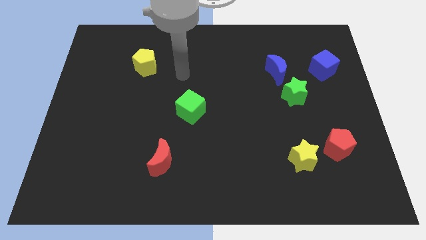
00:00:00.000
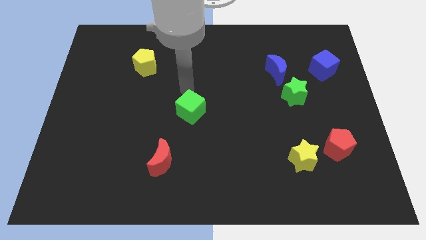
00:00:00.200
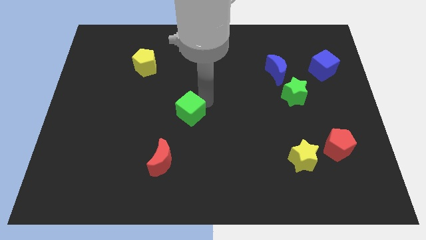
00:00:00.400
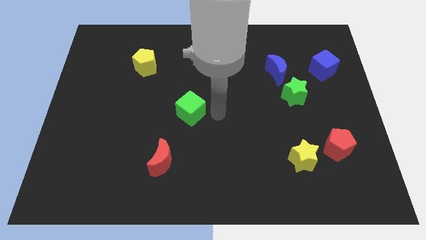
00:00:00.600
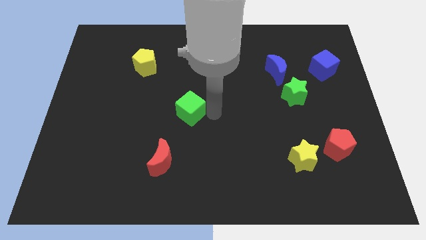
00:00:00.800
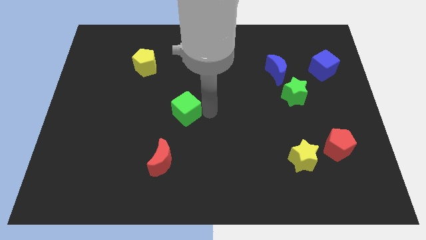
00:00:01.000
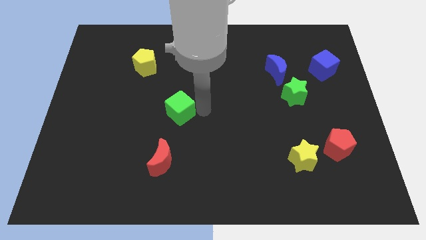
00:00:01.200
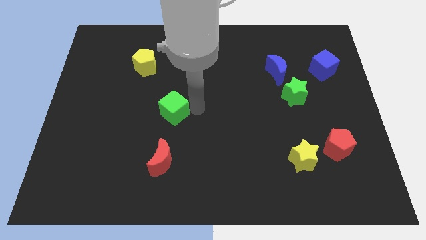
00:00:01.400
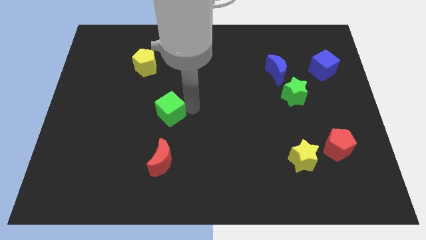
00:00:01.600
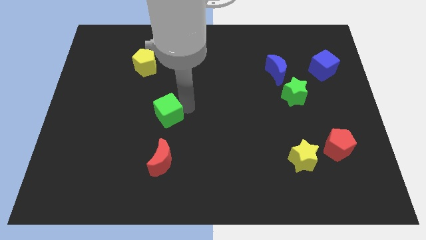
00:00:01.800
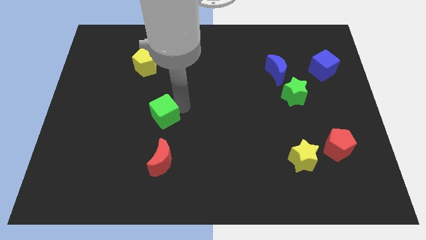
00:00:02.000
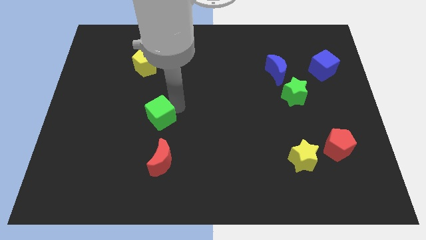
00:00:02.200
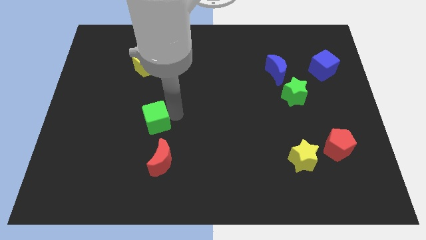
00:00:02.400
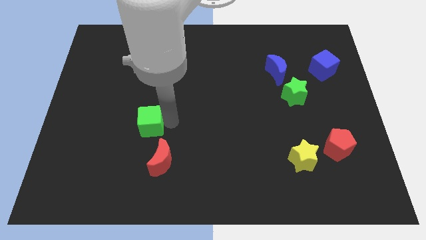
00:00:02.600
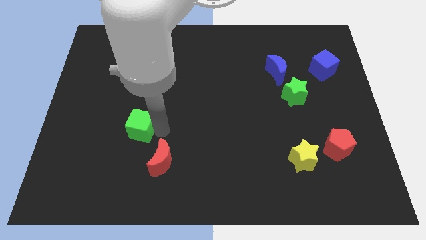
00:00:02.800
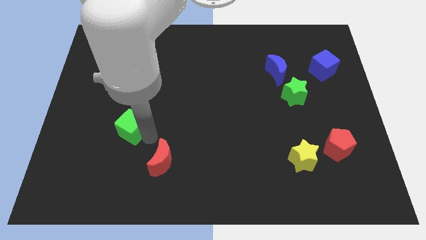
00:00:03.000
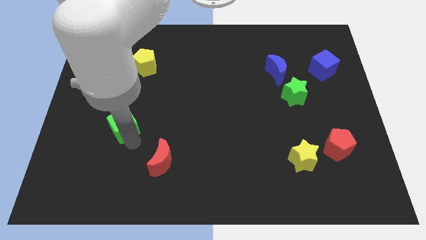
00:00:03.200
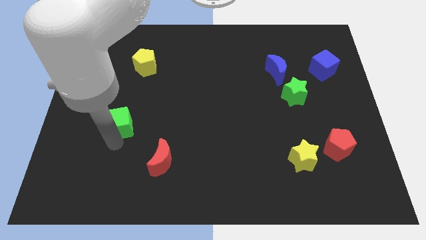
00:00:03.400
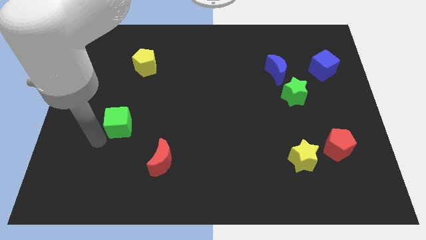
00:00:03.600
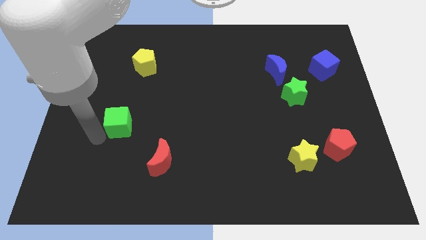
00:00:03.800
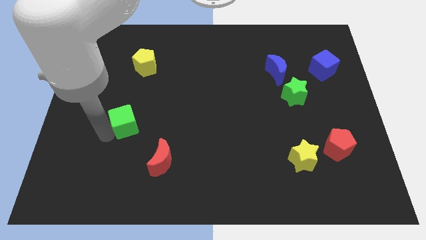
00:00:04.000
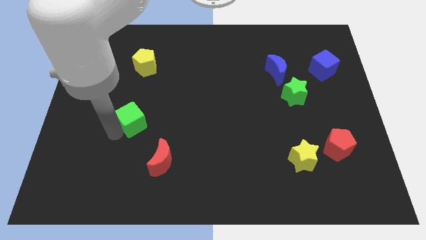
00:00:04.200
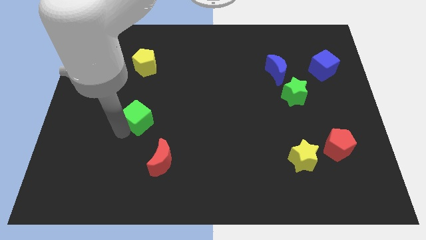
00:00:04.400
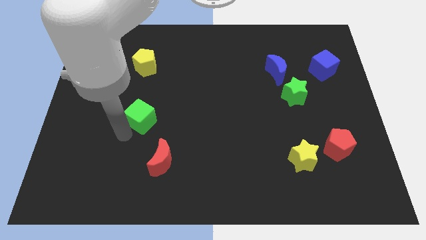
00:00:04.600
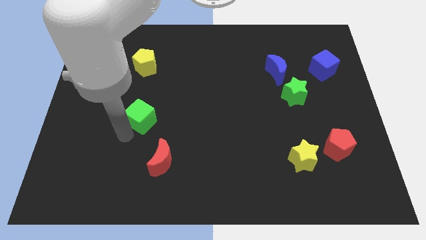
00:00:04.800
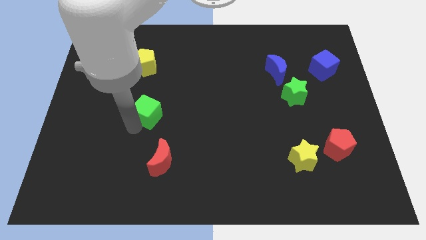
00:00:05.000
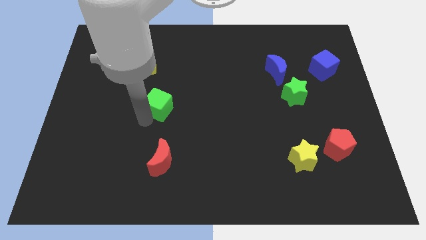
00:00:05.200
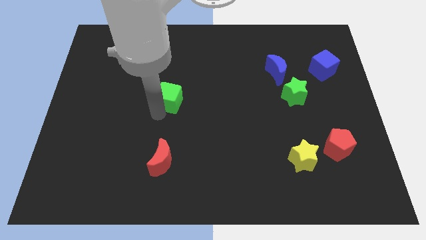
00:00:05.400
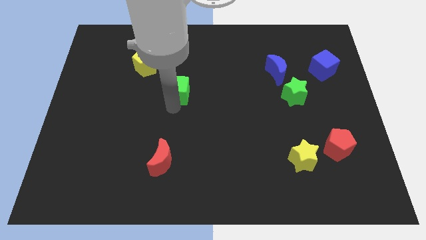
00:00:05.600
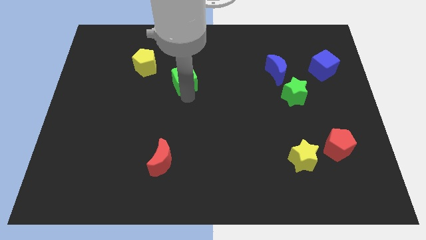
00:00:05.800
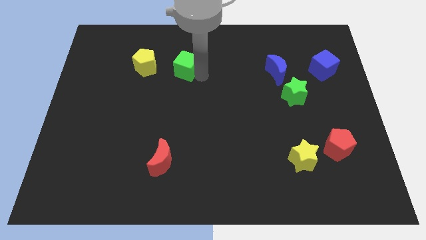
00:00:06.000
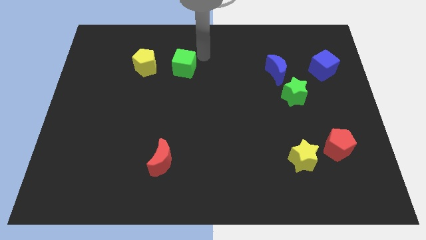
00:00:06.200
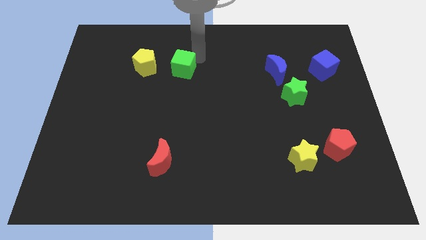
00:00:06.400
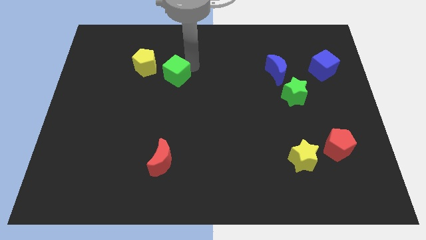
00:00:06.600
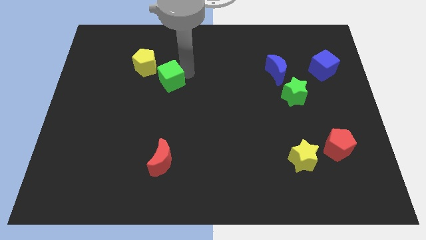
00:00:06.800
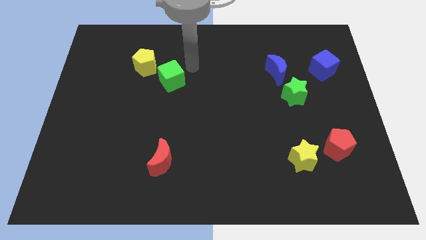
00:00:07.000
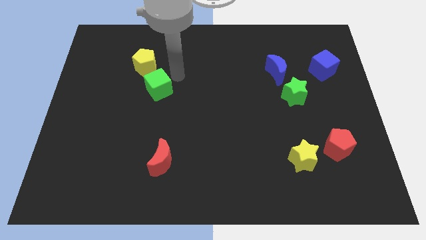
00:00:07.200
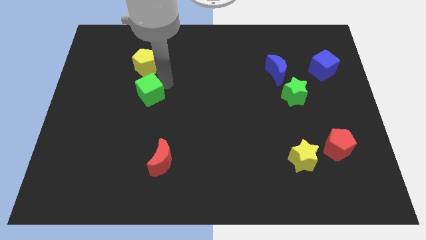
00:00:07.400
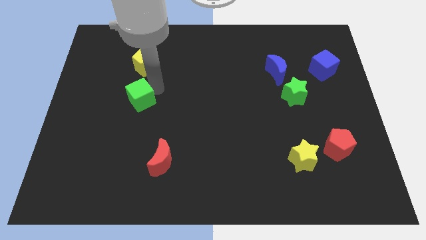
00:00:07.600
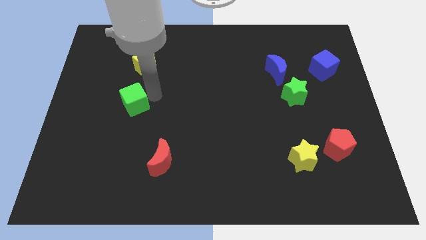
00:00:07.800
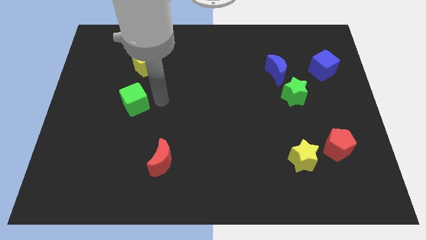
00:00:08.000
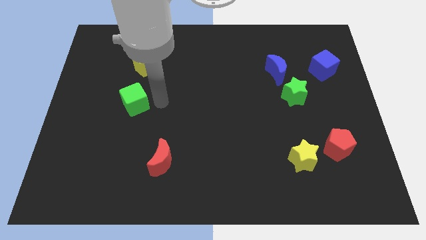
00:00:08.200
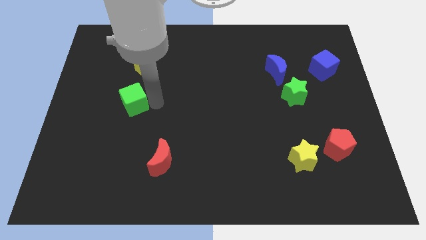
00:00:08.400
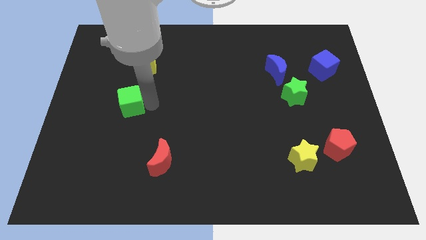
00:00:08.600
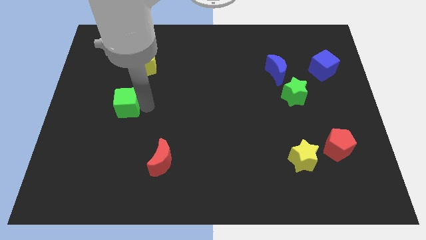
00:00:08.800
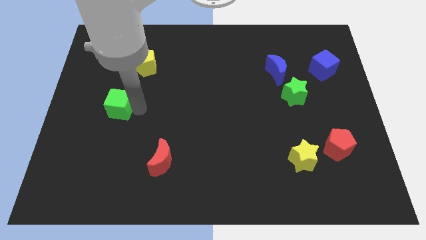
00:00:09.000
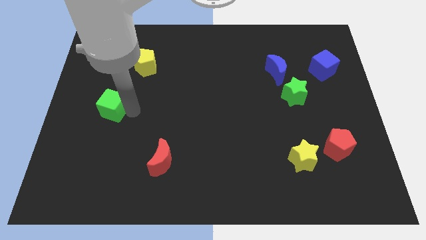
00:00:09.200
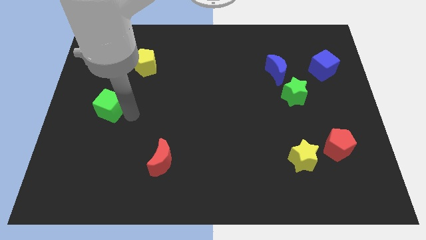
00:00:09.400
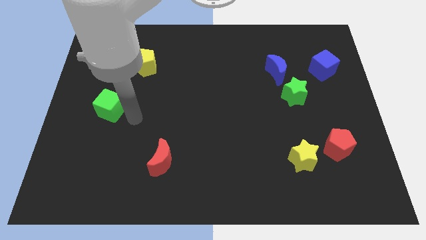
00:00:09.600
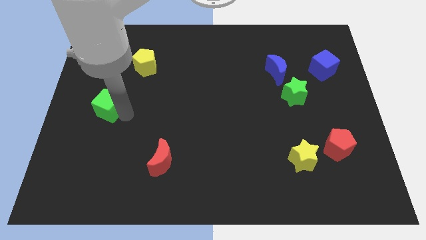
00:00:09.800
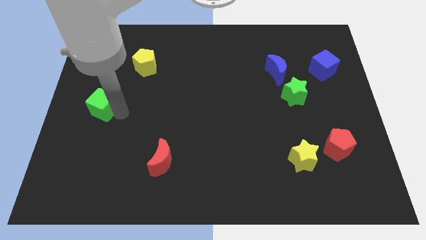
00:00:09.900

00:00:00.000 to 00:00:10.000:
move the green cube to the left side of the board

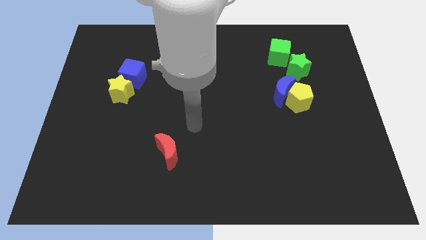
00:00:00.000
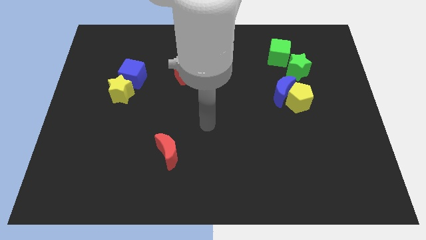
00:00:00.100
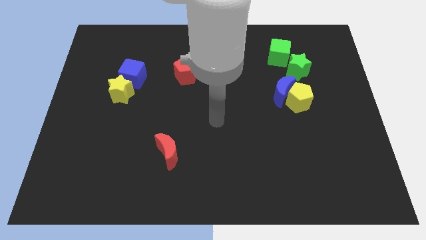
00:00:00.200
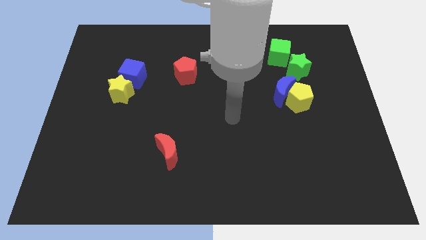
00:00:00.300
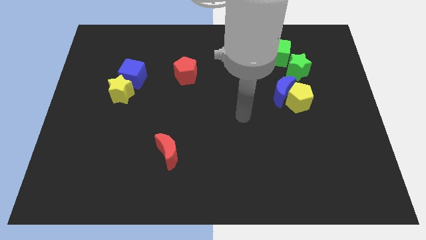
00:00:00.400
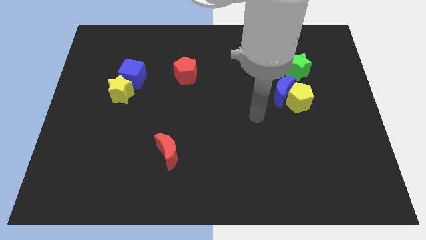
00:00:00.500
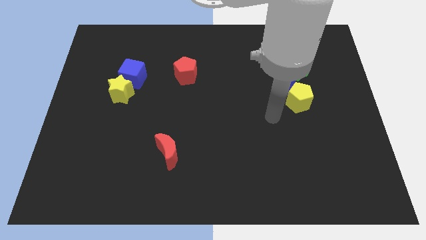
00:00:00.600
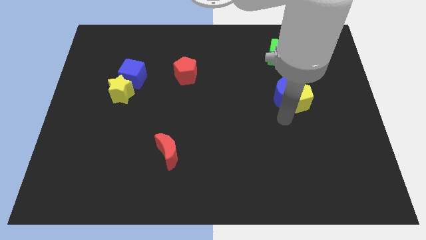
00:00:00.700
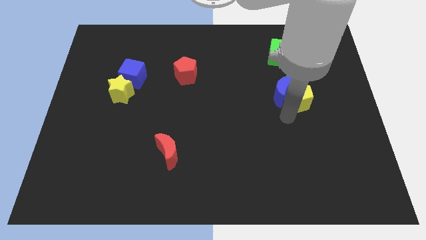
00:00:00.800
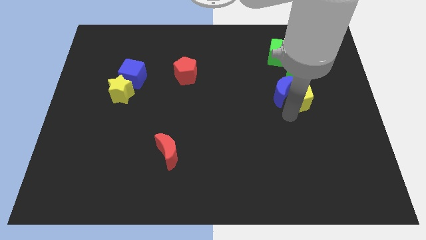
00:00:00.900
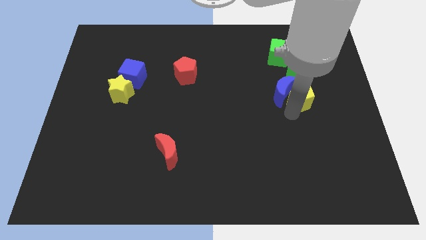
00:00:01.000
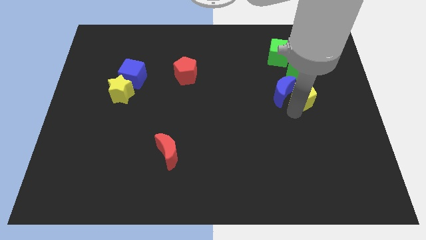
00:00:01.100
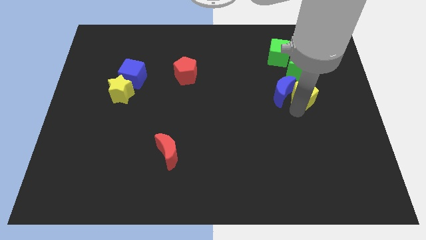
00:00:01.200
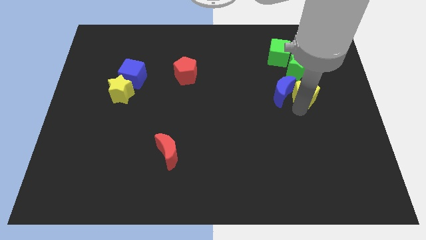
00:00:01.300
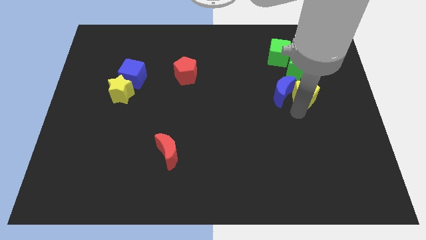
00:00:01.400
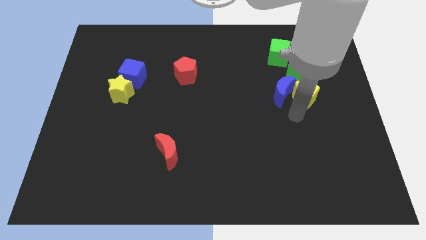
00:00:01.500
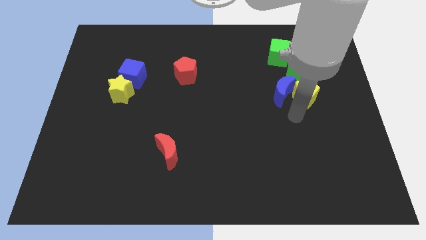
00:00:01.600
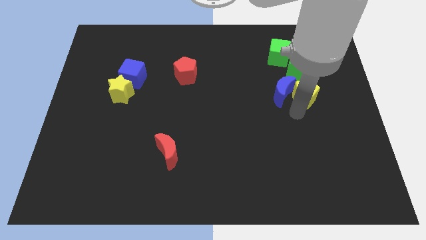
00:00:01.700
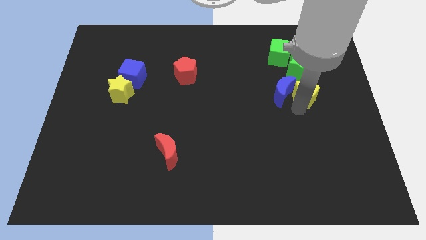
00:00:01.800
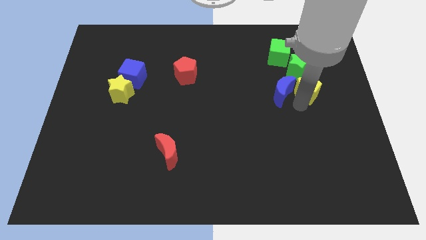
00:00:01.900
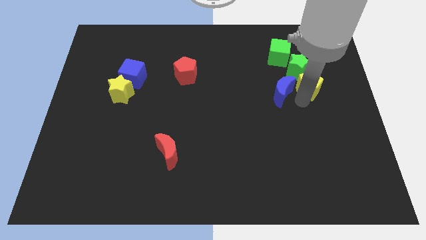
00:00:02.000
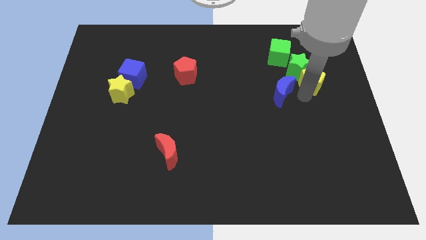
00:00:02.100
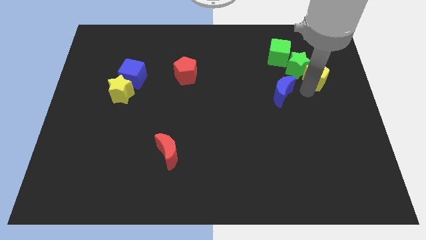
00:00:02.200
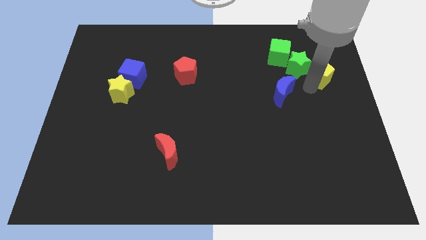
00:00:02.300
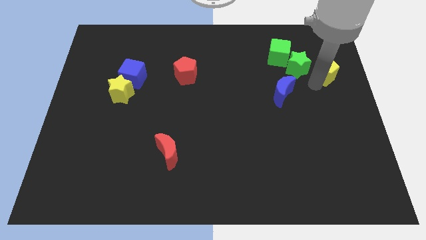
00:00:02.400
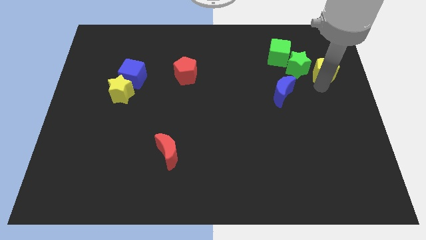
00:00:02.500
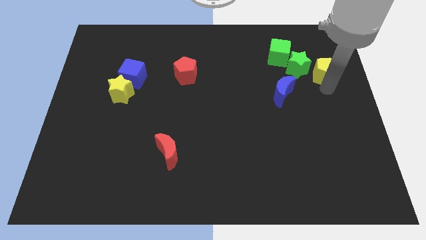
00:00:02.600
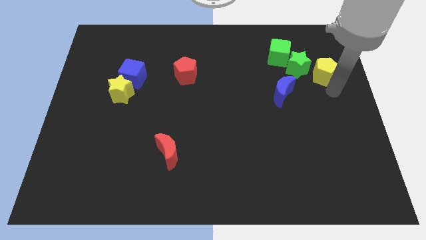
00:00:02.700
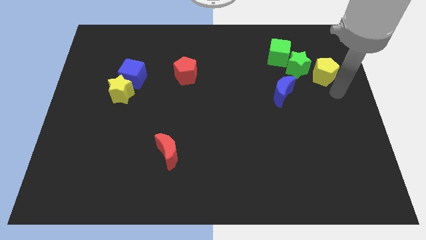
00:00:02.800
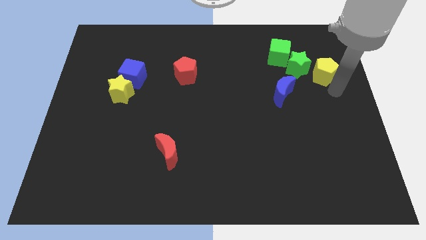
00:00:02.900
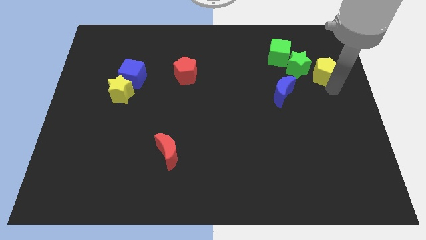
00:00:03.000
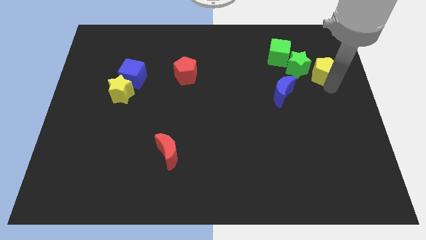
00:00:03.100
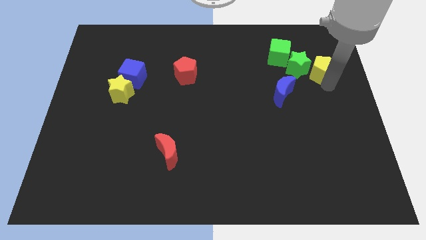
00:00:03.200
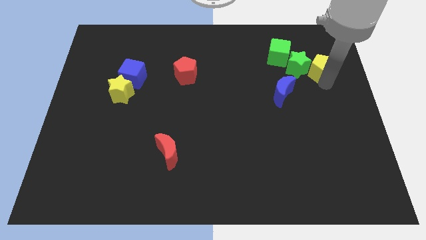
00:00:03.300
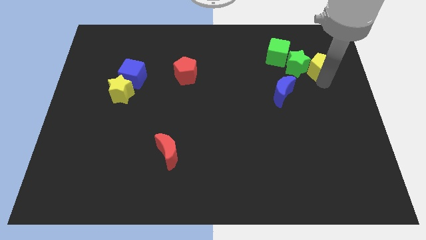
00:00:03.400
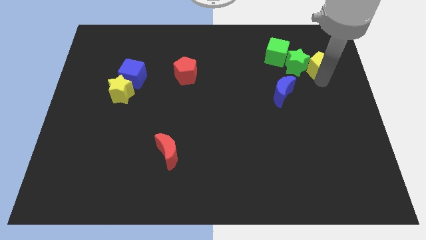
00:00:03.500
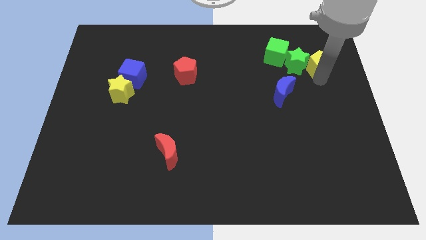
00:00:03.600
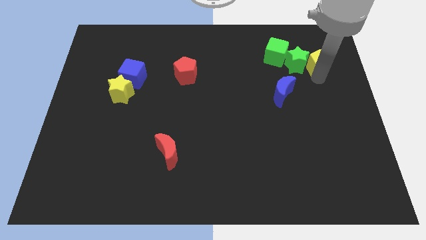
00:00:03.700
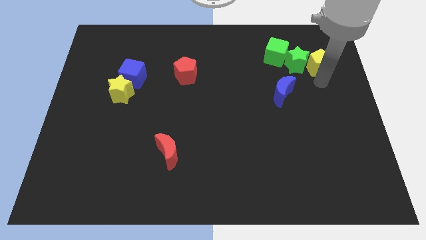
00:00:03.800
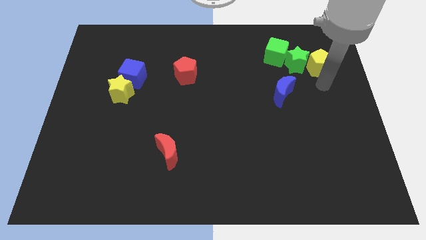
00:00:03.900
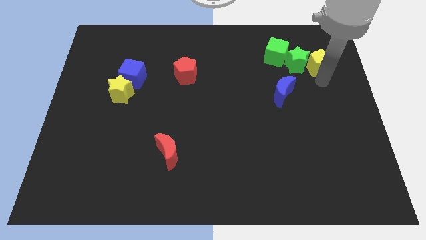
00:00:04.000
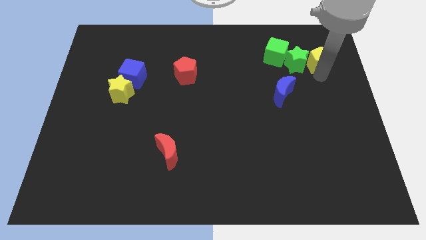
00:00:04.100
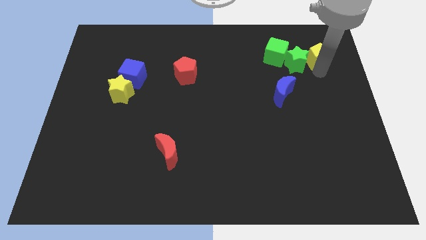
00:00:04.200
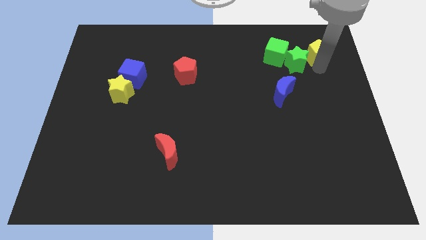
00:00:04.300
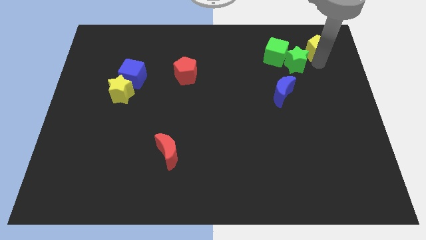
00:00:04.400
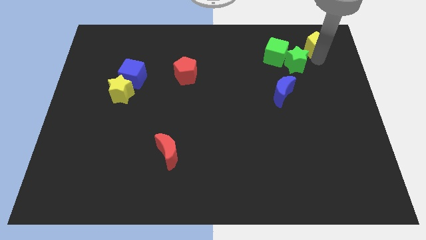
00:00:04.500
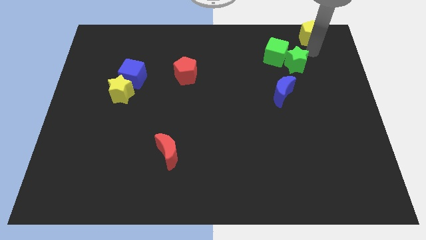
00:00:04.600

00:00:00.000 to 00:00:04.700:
move the yellow pentagon to the top right
